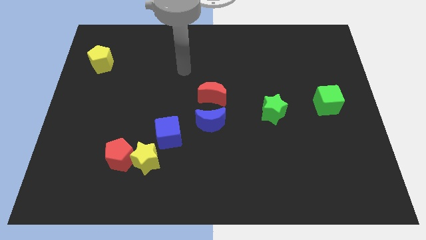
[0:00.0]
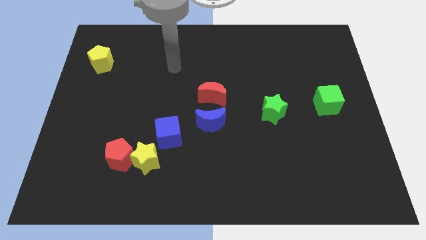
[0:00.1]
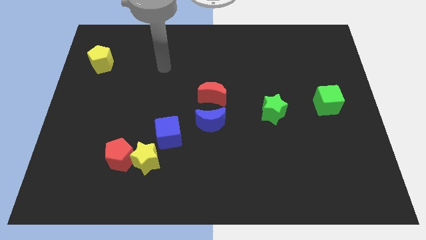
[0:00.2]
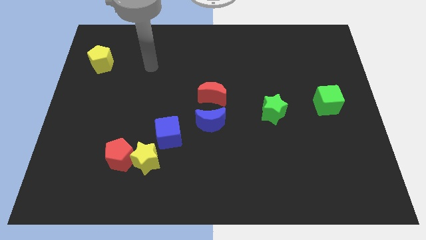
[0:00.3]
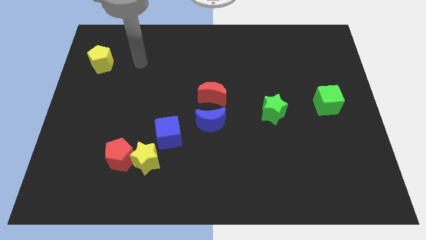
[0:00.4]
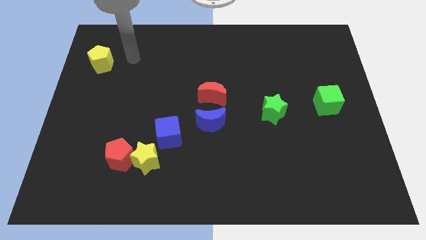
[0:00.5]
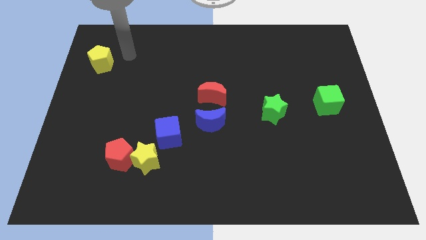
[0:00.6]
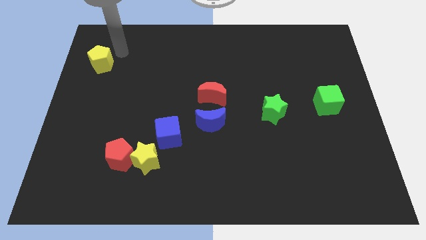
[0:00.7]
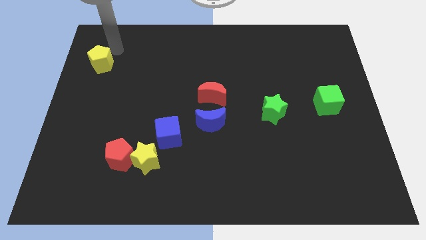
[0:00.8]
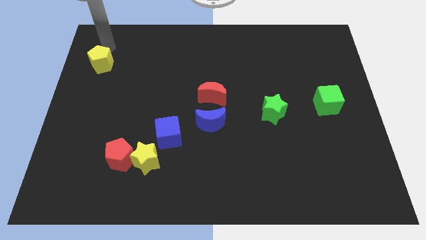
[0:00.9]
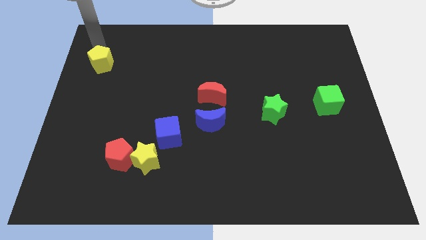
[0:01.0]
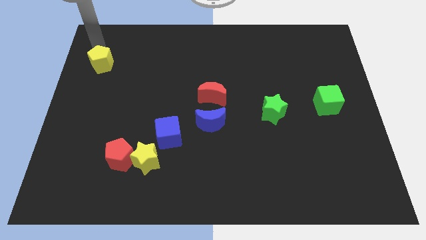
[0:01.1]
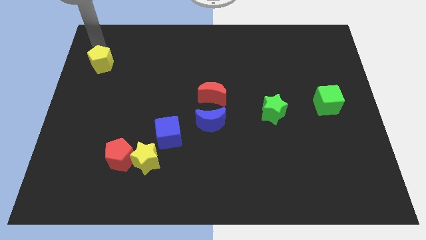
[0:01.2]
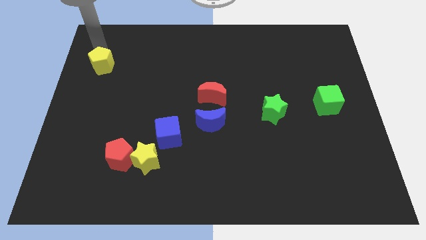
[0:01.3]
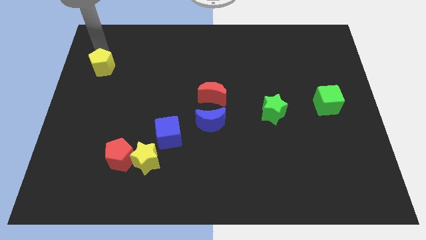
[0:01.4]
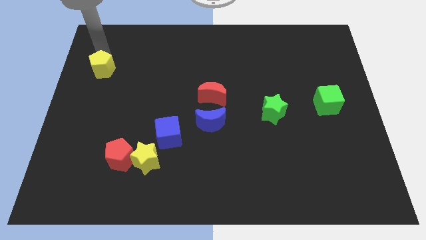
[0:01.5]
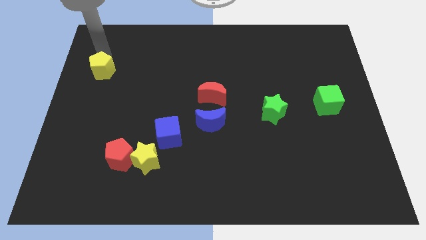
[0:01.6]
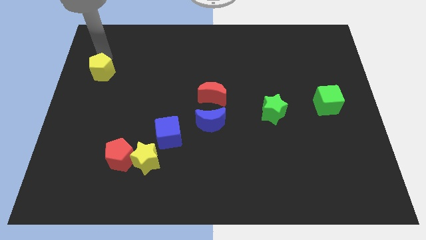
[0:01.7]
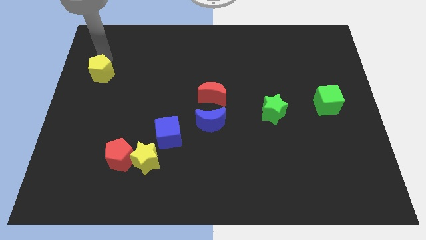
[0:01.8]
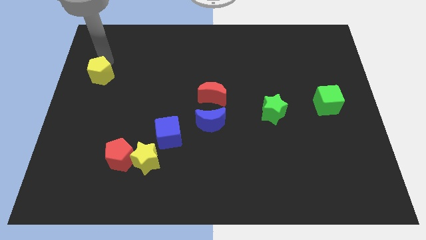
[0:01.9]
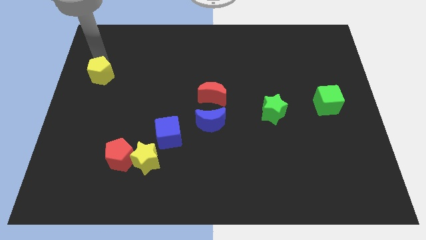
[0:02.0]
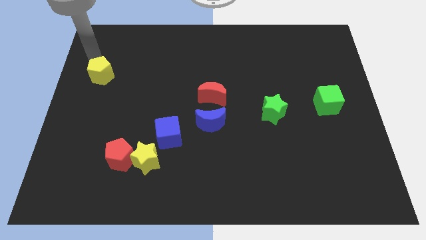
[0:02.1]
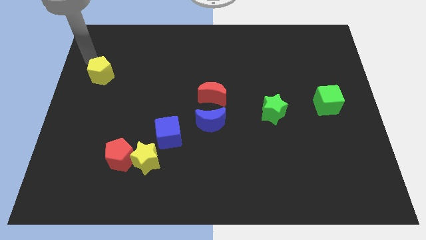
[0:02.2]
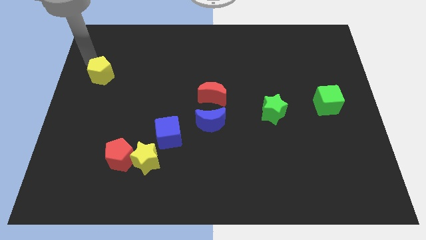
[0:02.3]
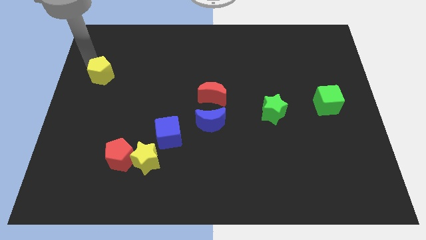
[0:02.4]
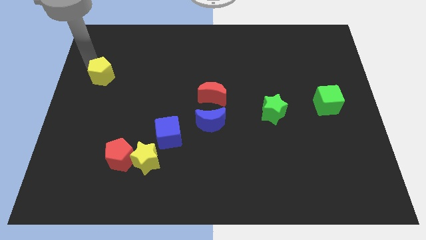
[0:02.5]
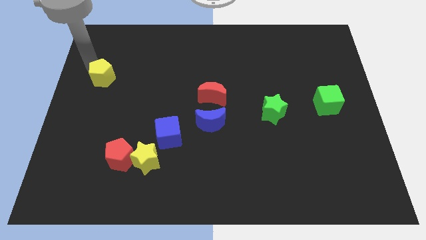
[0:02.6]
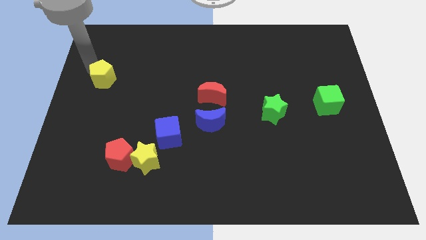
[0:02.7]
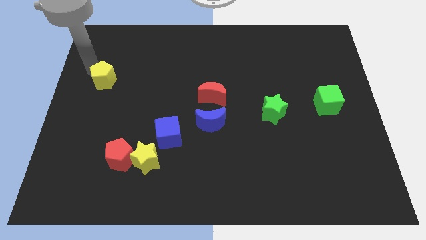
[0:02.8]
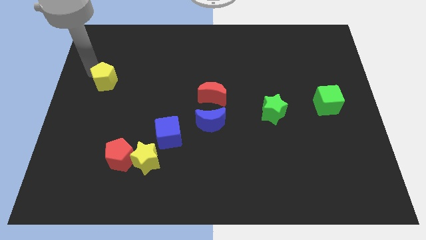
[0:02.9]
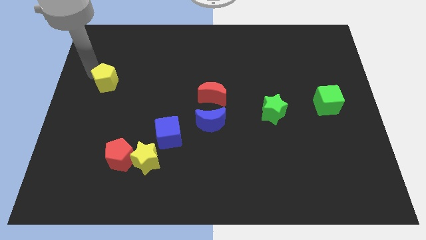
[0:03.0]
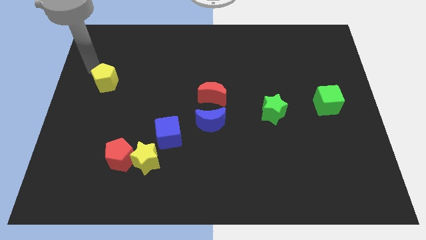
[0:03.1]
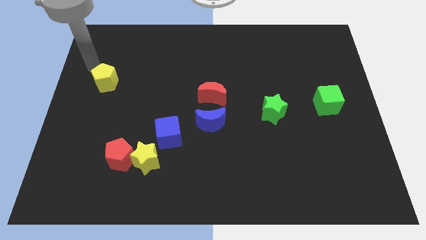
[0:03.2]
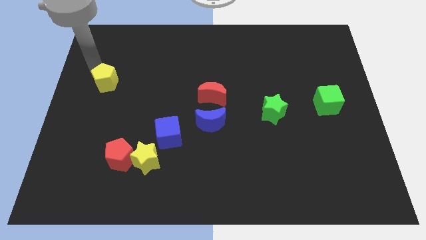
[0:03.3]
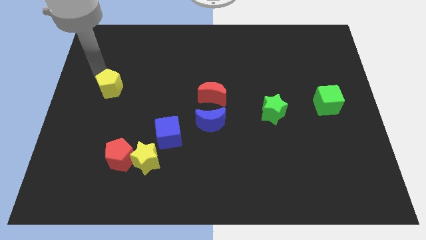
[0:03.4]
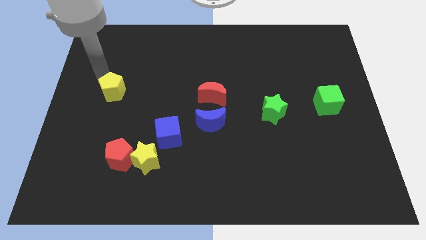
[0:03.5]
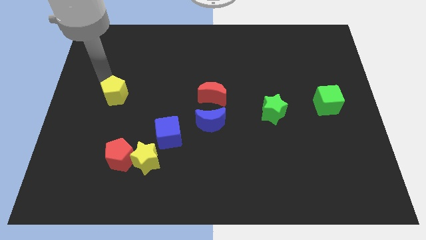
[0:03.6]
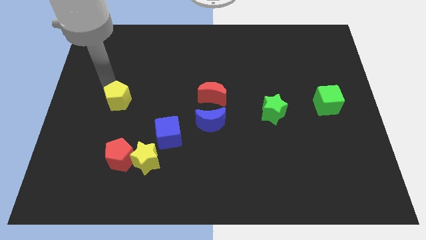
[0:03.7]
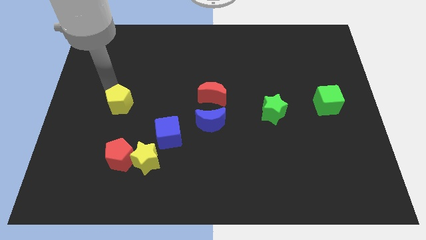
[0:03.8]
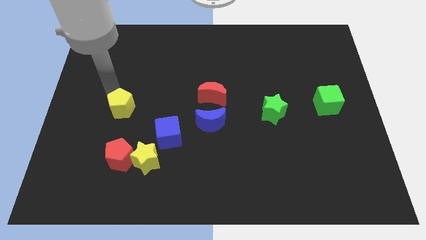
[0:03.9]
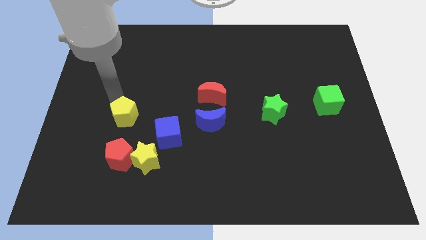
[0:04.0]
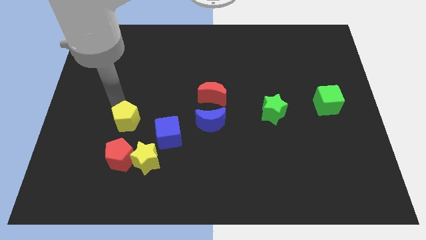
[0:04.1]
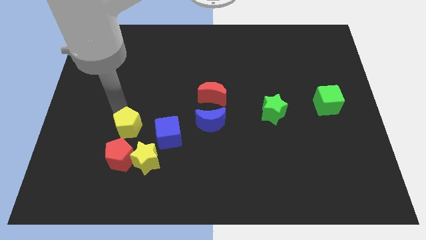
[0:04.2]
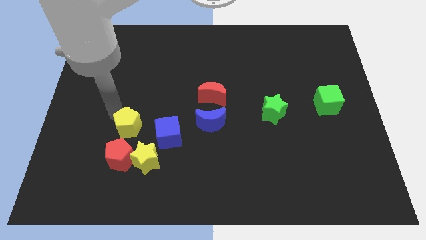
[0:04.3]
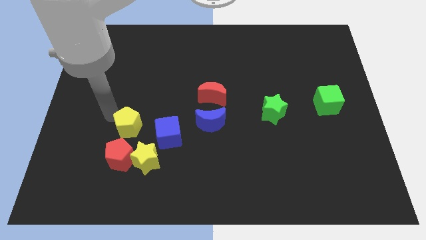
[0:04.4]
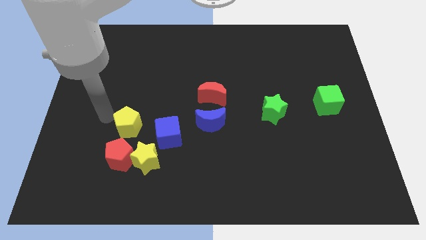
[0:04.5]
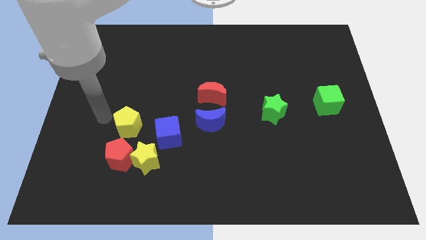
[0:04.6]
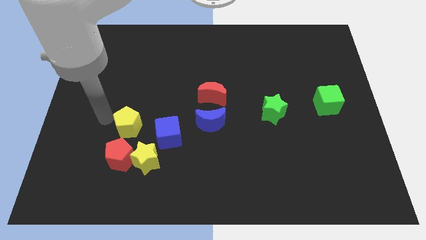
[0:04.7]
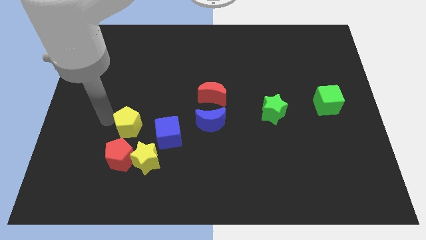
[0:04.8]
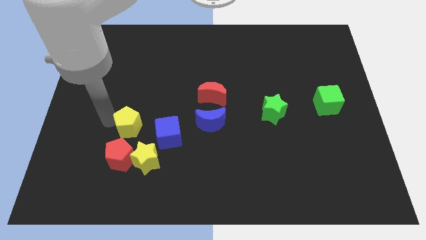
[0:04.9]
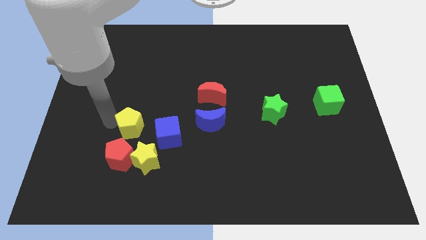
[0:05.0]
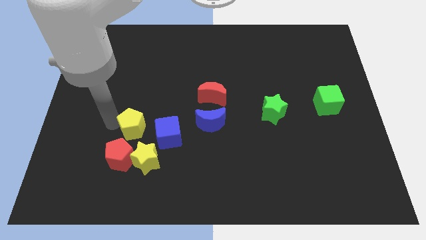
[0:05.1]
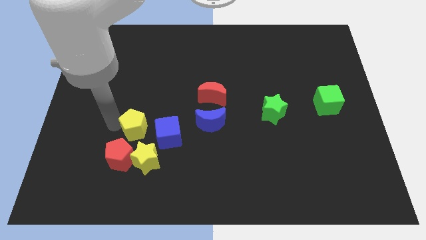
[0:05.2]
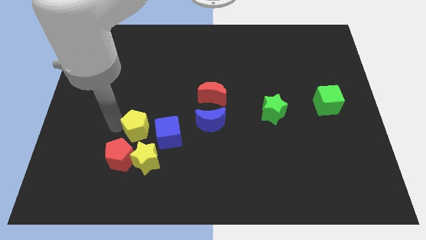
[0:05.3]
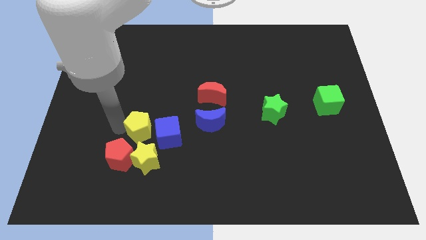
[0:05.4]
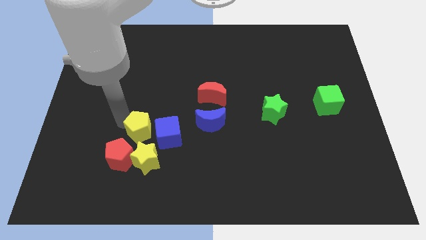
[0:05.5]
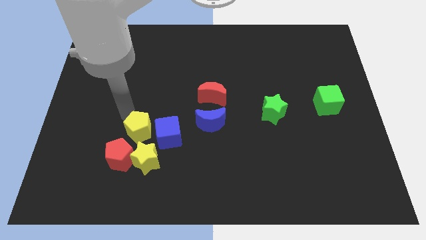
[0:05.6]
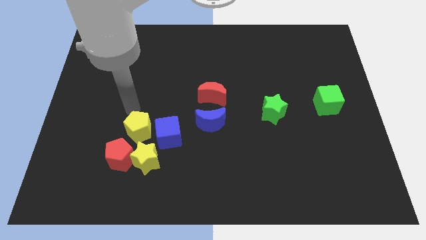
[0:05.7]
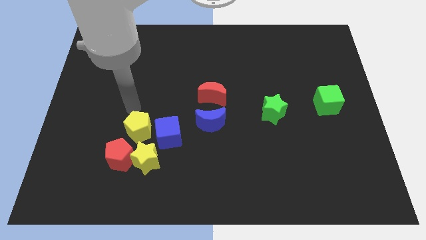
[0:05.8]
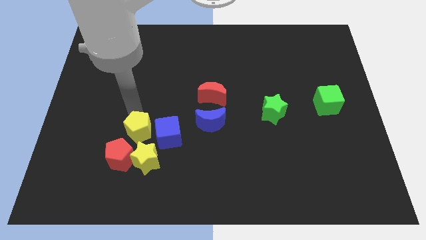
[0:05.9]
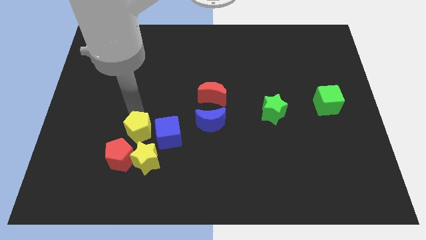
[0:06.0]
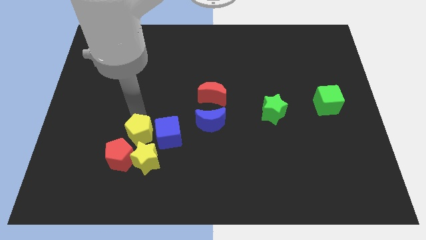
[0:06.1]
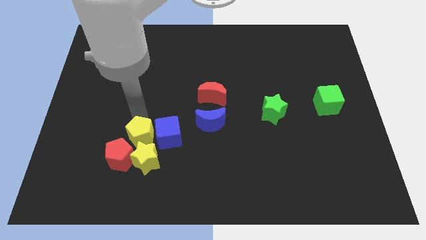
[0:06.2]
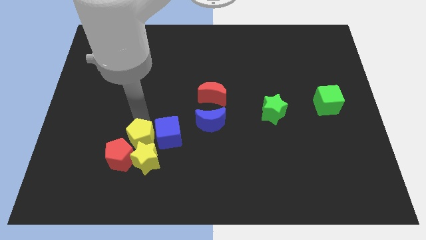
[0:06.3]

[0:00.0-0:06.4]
move the yellow pentagon to the yellow star
